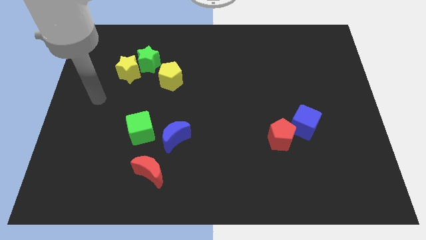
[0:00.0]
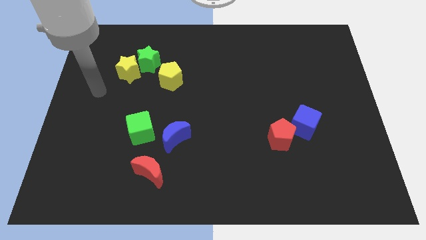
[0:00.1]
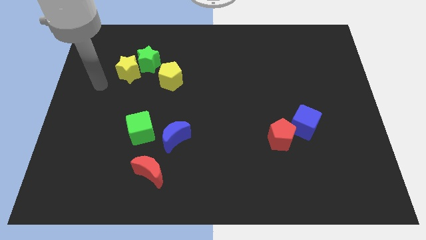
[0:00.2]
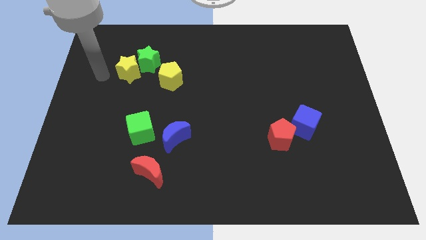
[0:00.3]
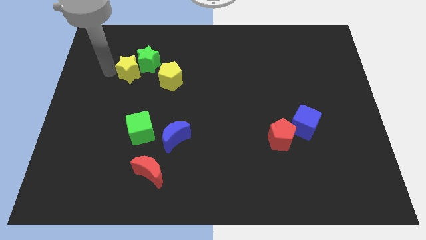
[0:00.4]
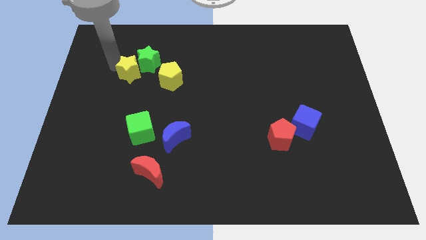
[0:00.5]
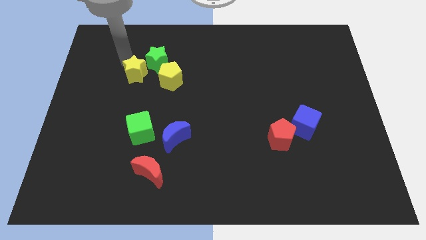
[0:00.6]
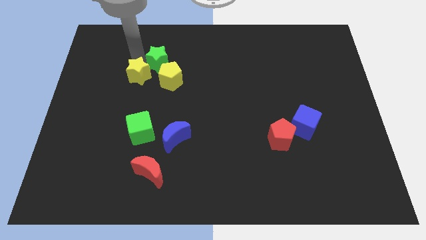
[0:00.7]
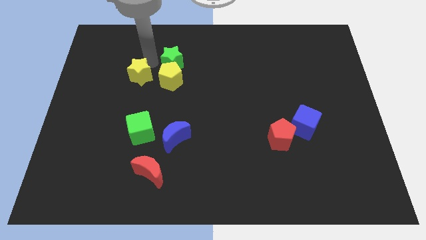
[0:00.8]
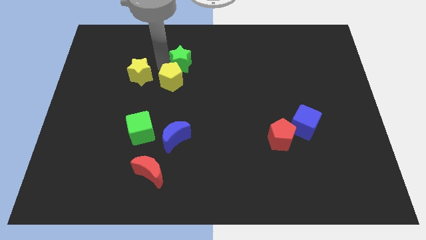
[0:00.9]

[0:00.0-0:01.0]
separate the yellow star from the green star

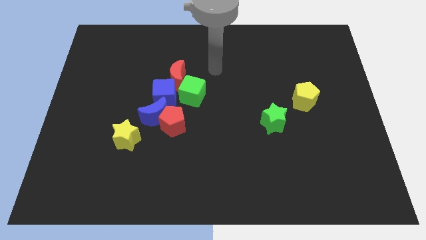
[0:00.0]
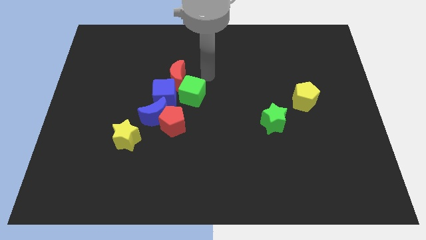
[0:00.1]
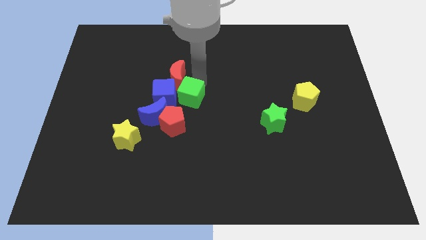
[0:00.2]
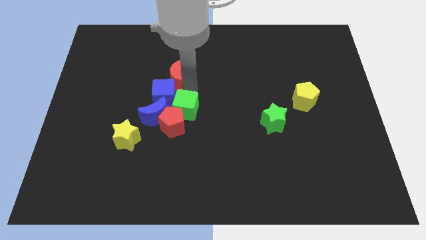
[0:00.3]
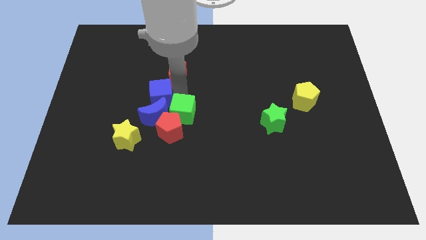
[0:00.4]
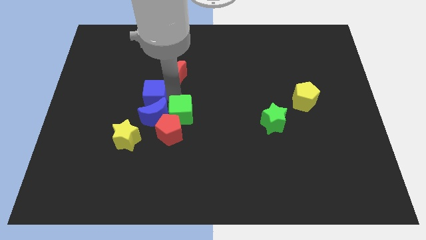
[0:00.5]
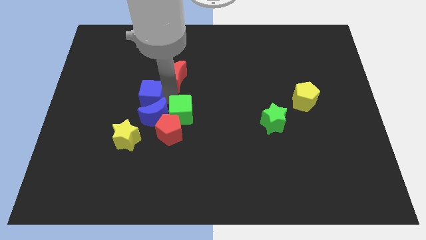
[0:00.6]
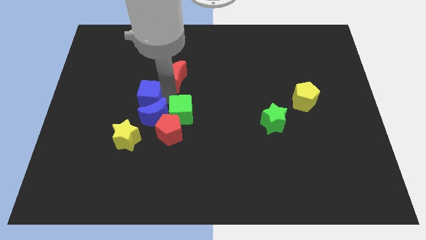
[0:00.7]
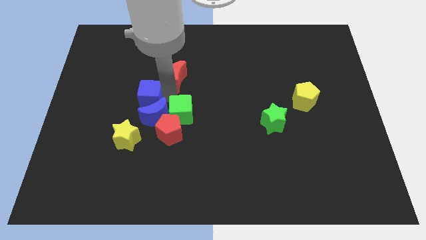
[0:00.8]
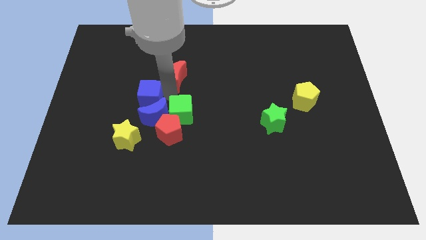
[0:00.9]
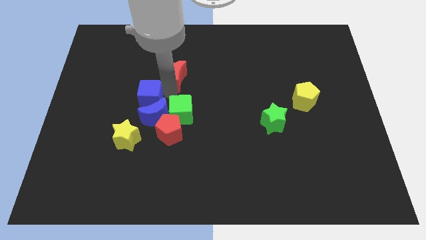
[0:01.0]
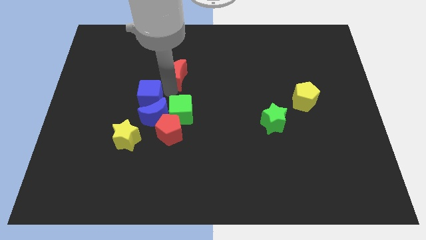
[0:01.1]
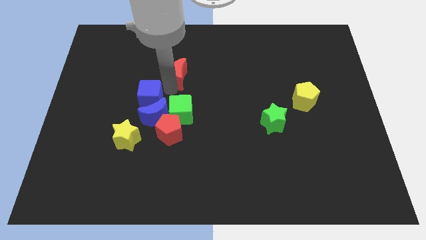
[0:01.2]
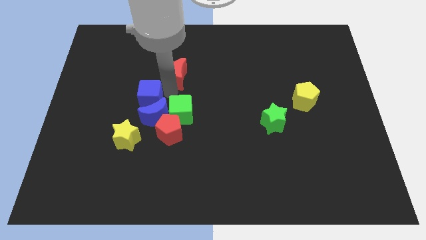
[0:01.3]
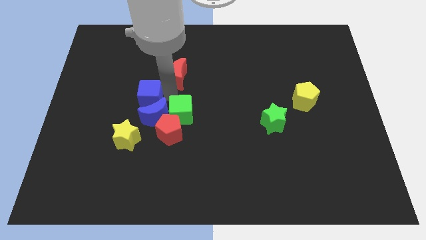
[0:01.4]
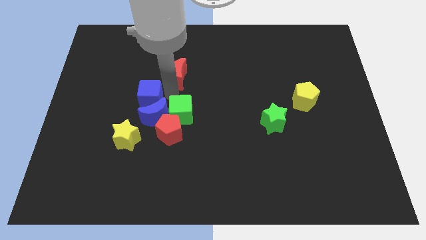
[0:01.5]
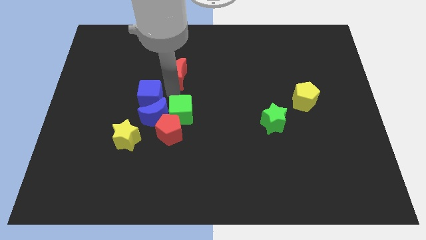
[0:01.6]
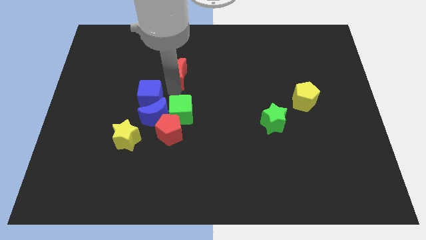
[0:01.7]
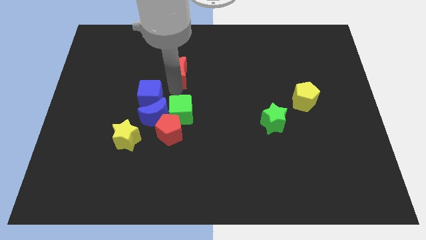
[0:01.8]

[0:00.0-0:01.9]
pull the red moon apart from the blue cube and green cube

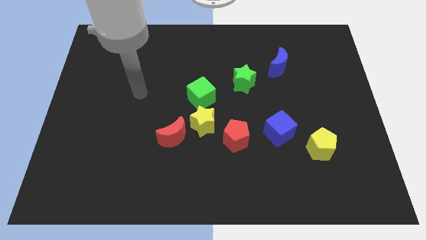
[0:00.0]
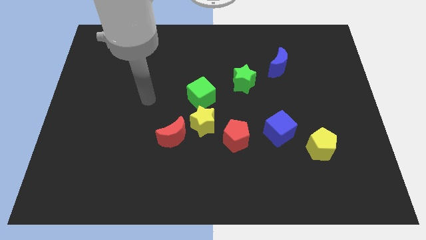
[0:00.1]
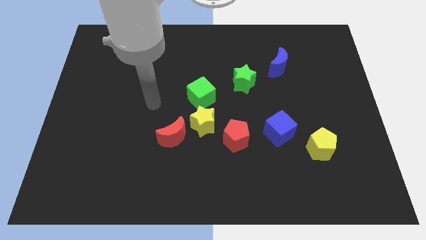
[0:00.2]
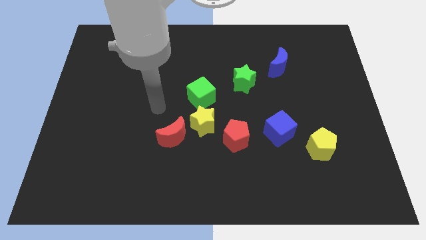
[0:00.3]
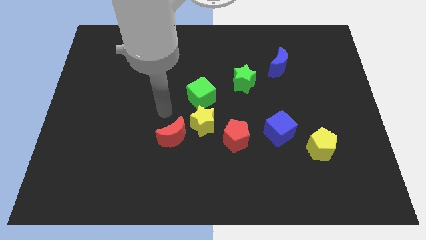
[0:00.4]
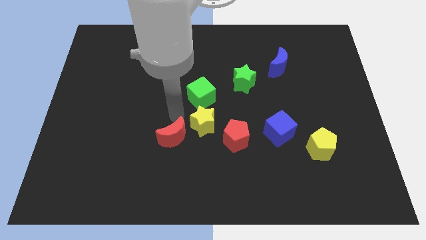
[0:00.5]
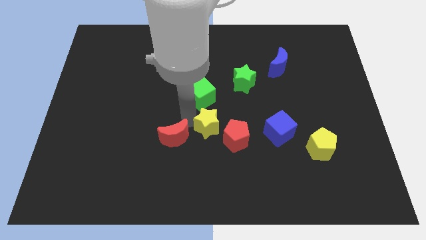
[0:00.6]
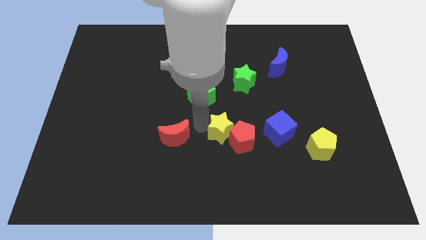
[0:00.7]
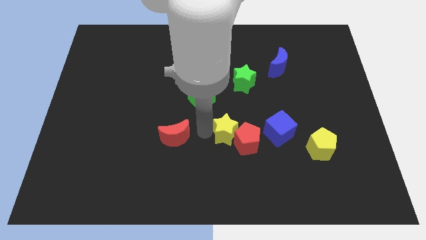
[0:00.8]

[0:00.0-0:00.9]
move the red moon away from the yellow star

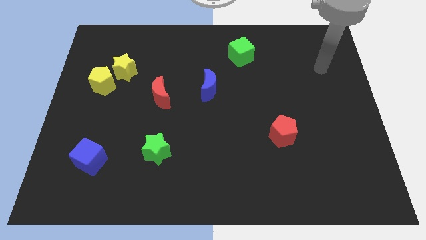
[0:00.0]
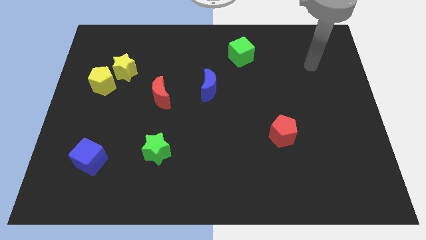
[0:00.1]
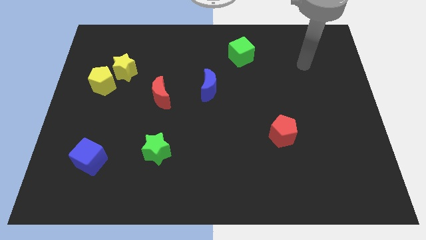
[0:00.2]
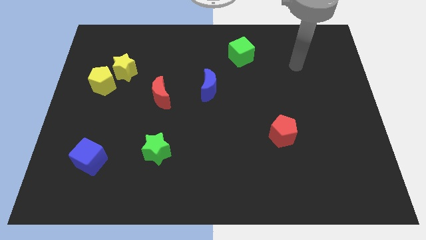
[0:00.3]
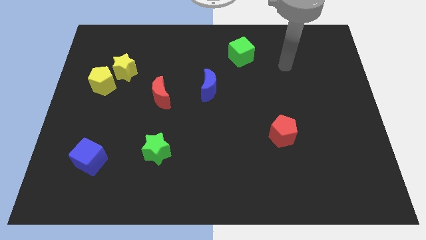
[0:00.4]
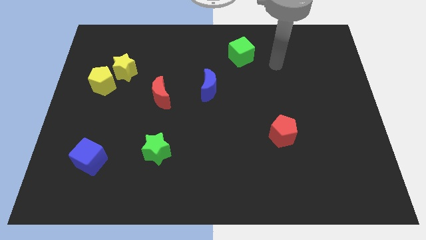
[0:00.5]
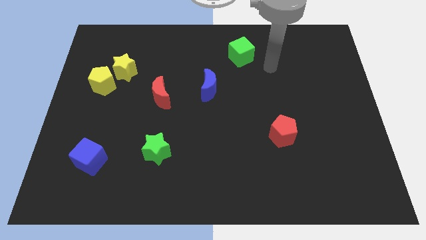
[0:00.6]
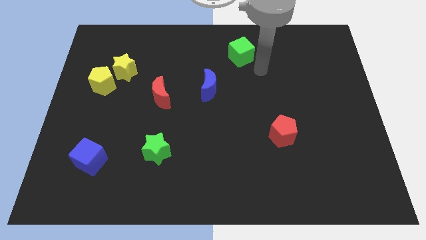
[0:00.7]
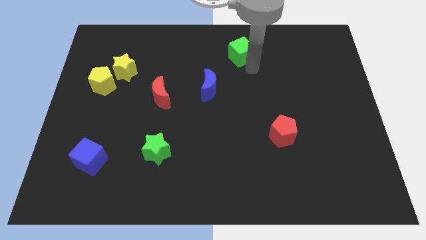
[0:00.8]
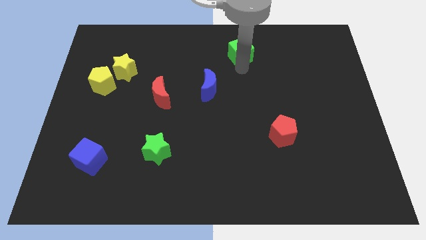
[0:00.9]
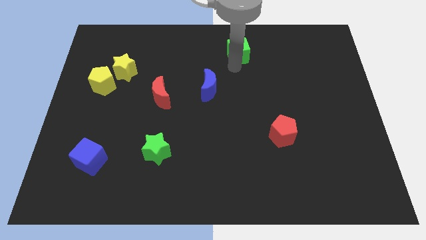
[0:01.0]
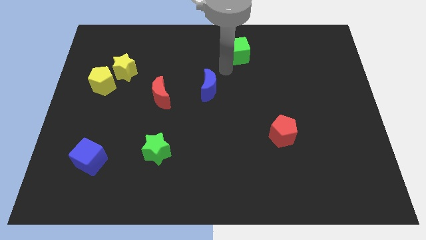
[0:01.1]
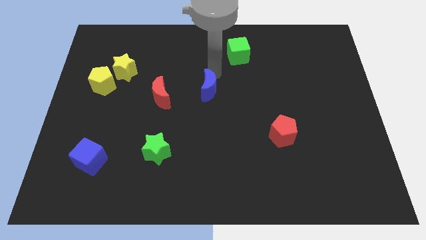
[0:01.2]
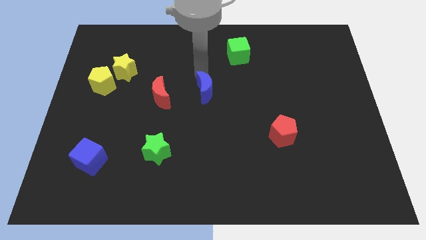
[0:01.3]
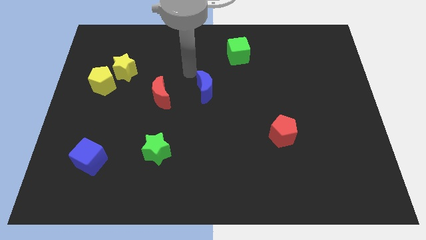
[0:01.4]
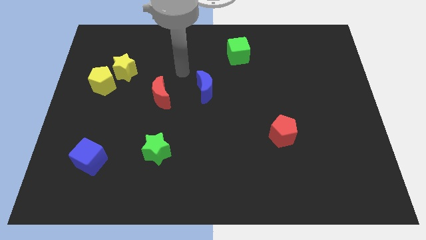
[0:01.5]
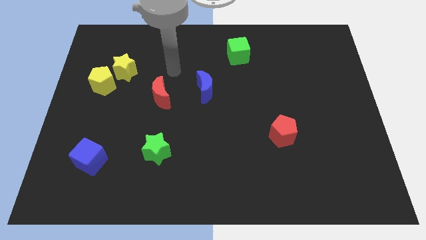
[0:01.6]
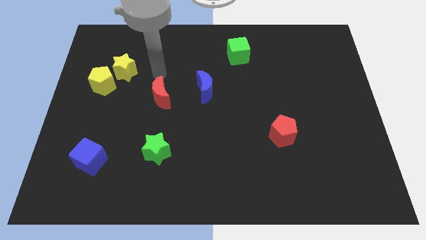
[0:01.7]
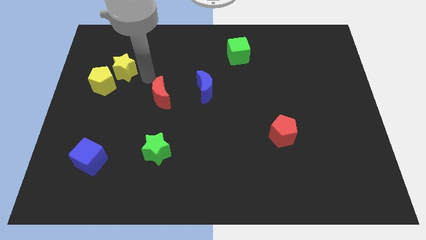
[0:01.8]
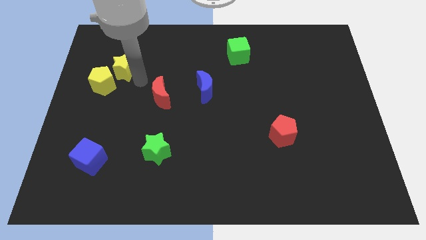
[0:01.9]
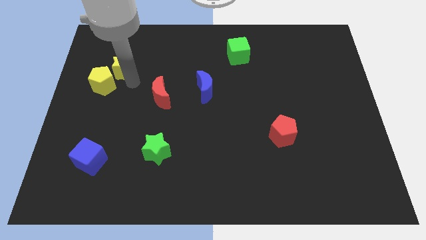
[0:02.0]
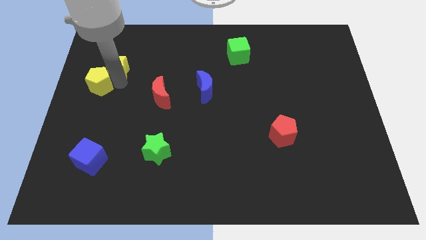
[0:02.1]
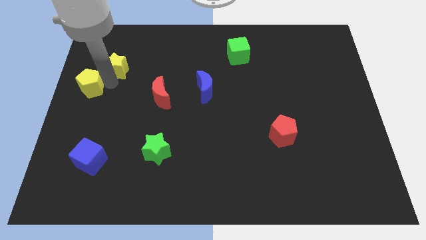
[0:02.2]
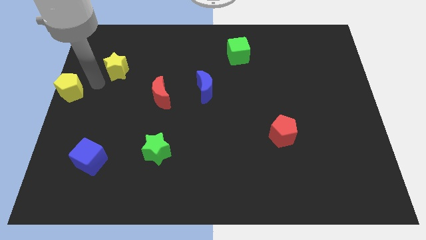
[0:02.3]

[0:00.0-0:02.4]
pull the yellow star apart from the yellow pentagon

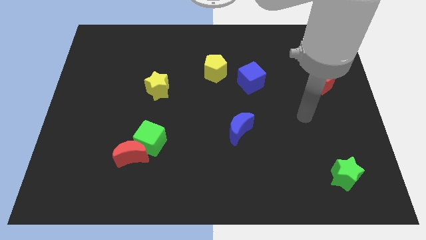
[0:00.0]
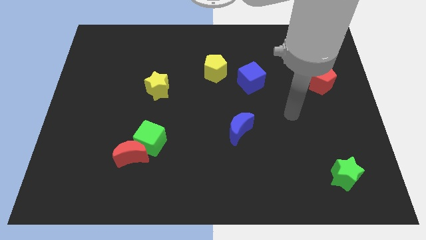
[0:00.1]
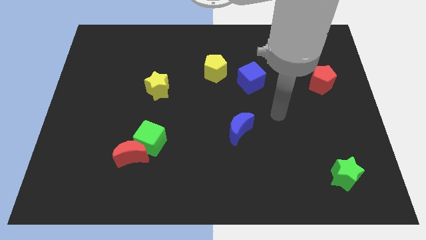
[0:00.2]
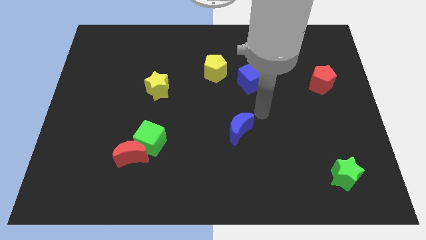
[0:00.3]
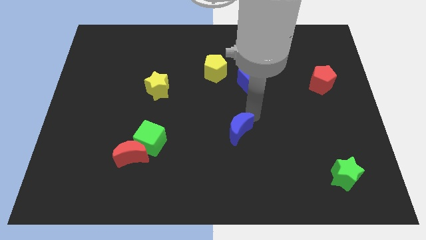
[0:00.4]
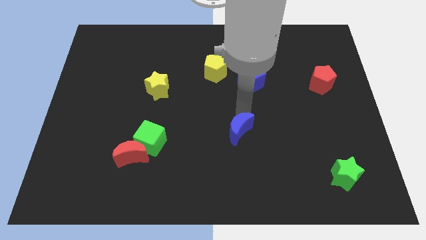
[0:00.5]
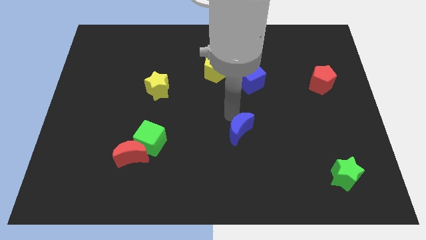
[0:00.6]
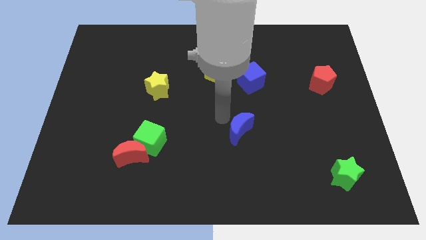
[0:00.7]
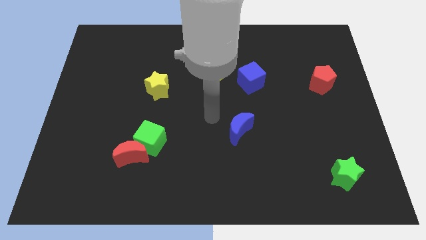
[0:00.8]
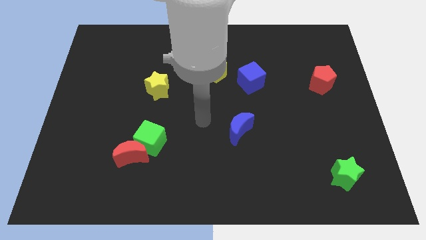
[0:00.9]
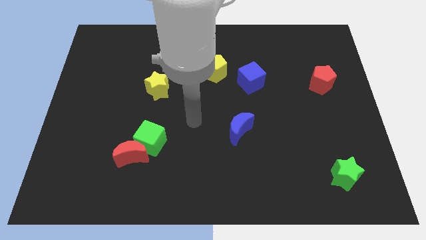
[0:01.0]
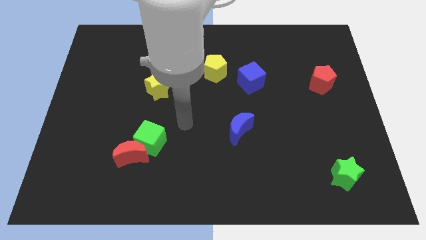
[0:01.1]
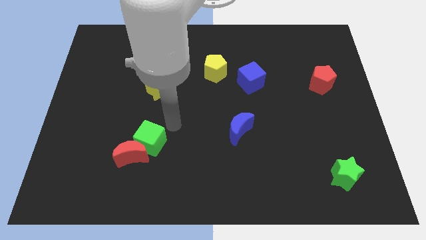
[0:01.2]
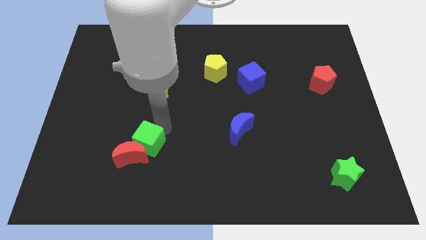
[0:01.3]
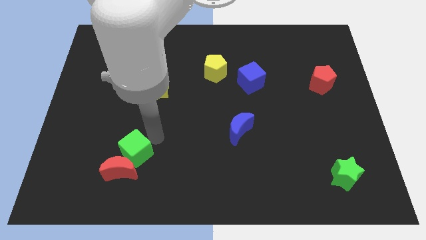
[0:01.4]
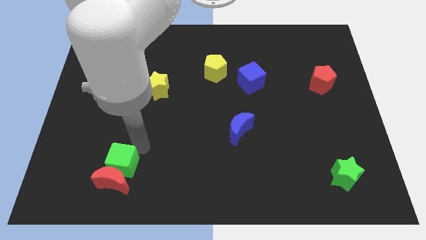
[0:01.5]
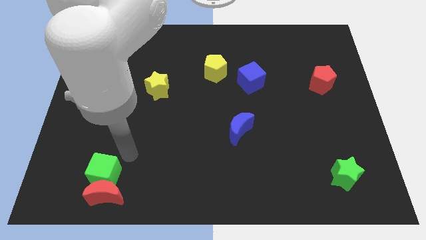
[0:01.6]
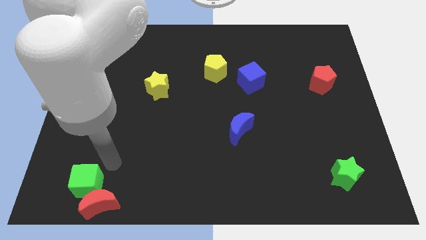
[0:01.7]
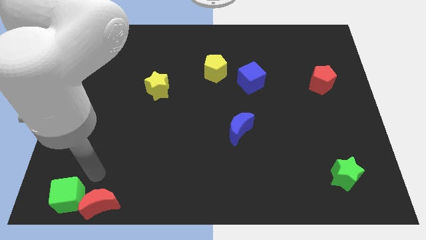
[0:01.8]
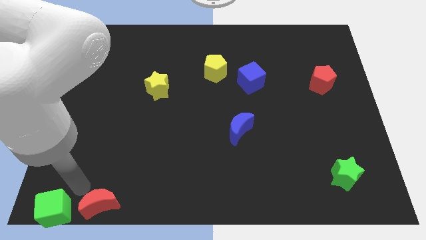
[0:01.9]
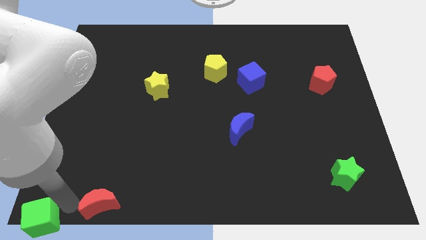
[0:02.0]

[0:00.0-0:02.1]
move the red moon away from the green cube

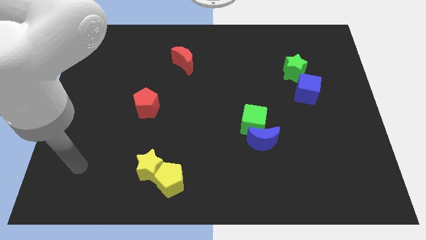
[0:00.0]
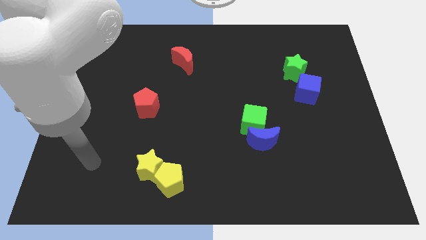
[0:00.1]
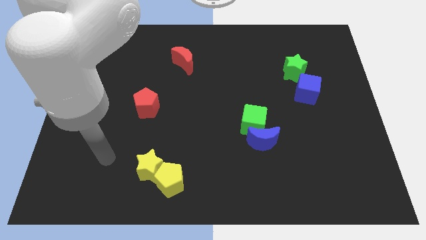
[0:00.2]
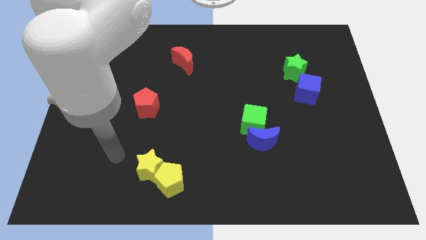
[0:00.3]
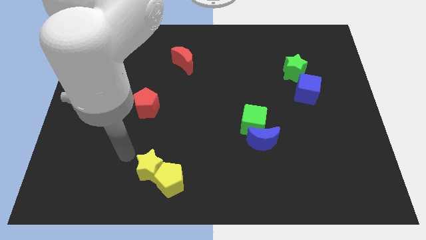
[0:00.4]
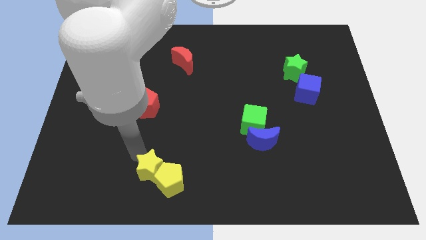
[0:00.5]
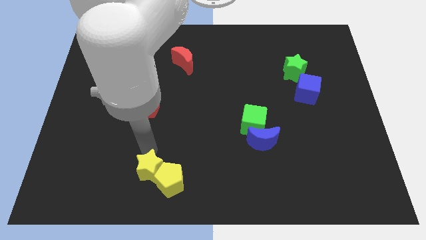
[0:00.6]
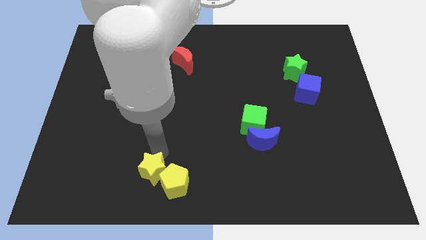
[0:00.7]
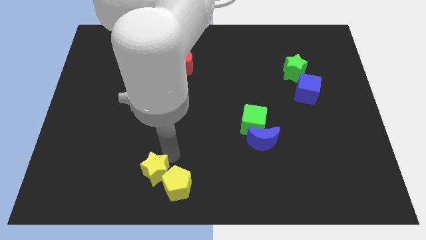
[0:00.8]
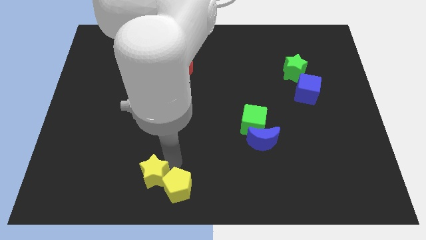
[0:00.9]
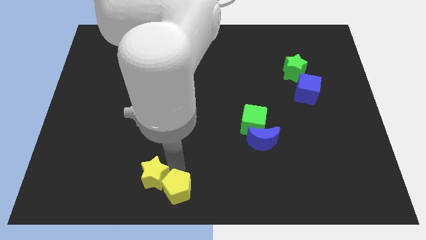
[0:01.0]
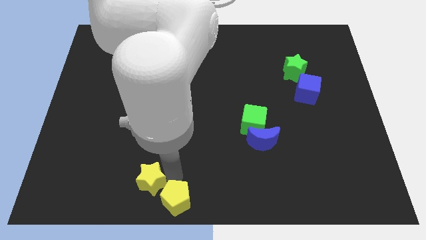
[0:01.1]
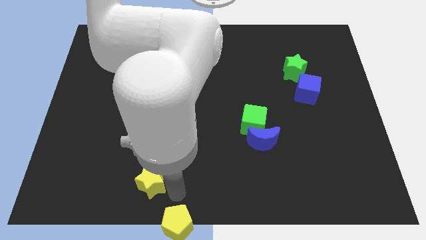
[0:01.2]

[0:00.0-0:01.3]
move the yellow star away from the yellow pentagon
